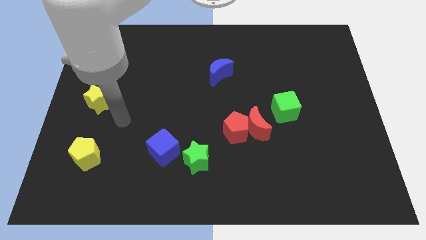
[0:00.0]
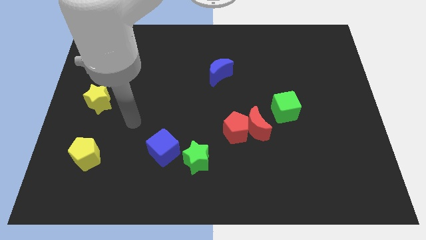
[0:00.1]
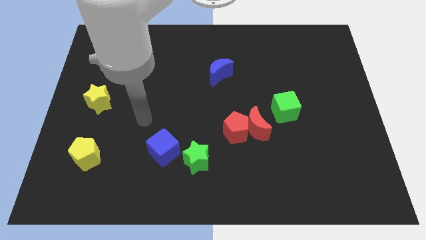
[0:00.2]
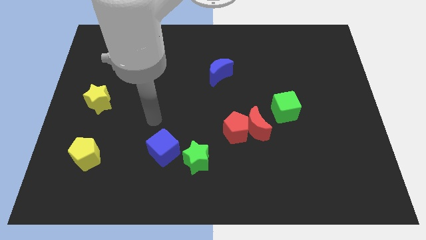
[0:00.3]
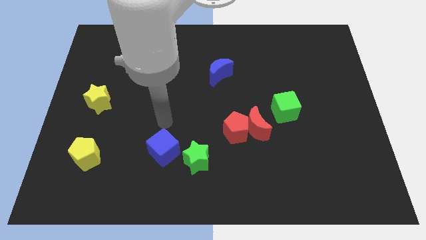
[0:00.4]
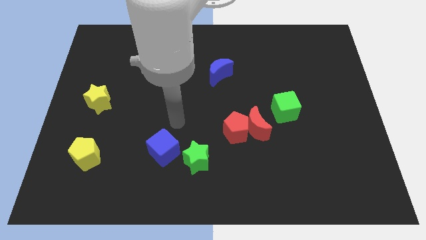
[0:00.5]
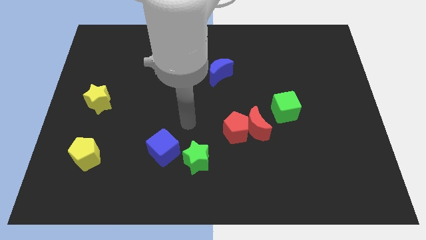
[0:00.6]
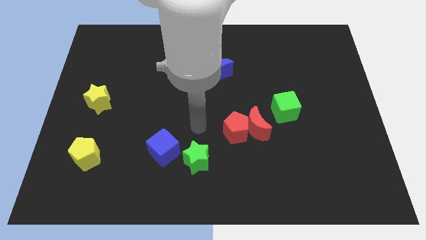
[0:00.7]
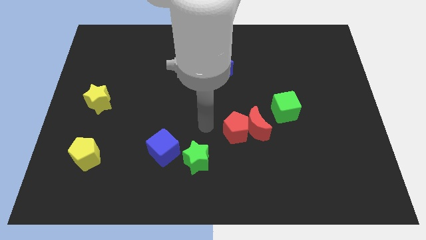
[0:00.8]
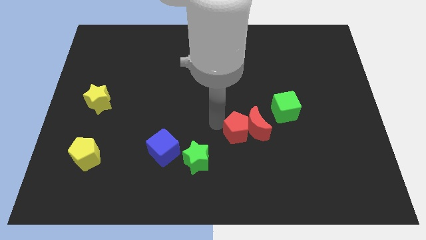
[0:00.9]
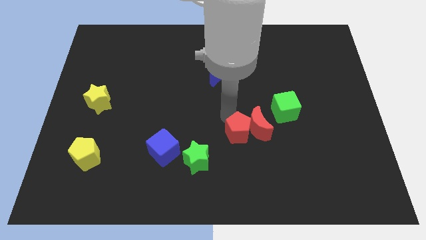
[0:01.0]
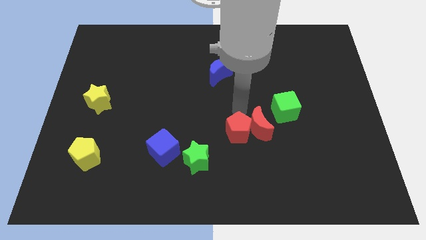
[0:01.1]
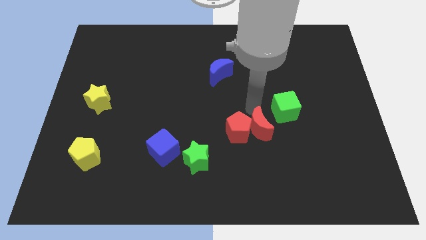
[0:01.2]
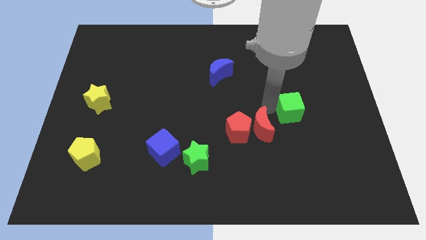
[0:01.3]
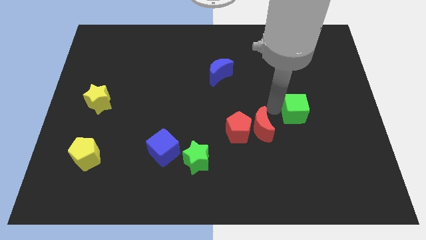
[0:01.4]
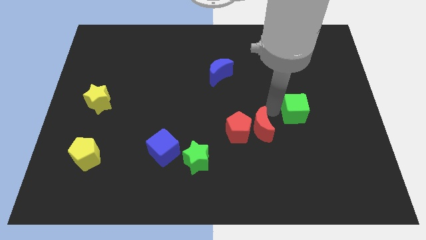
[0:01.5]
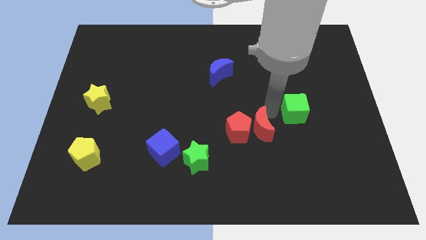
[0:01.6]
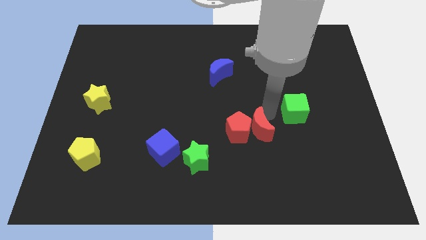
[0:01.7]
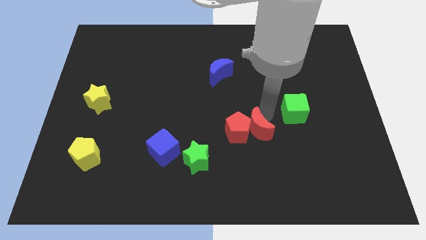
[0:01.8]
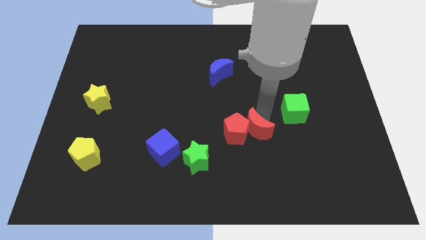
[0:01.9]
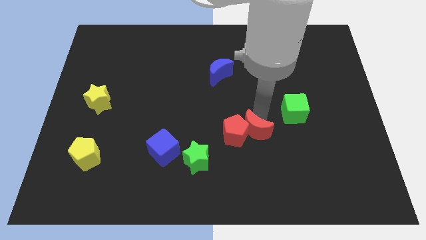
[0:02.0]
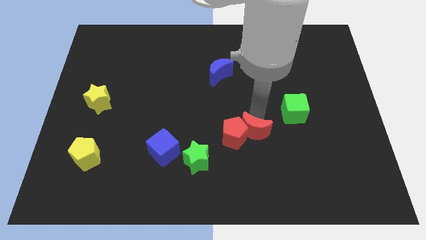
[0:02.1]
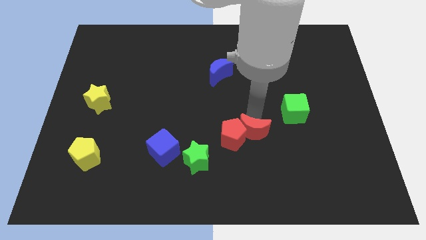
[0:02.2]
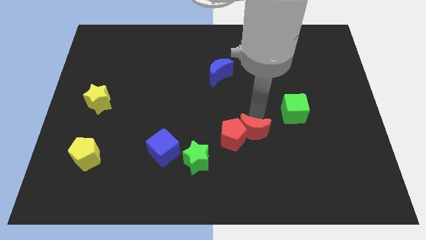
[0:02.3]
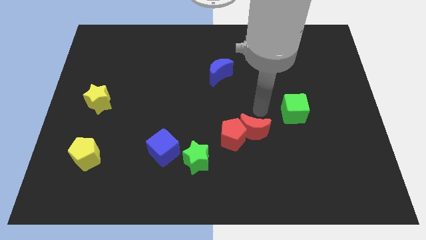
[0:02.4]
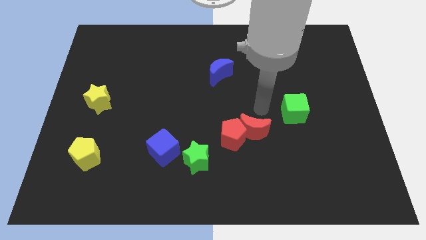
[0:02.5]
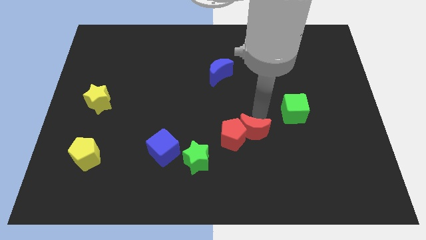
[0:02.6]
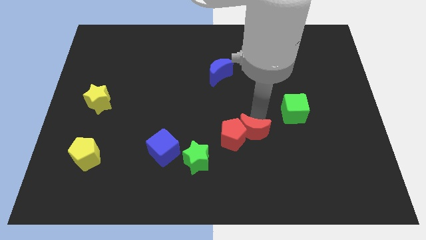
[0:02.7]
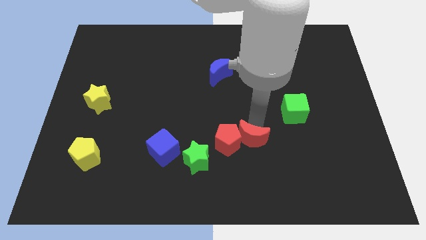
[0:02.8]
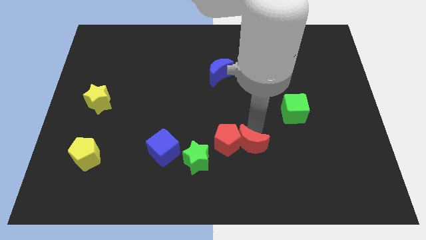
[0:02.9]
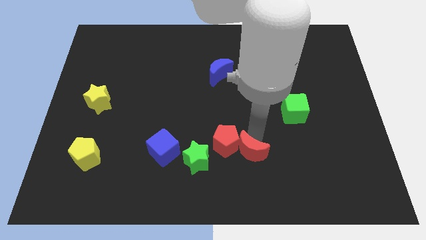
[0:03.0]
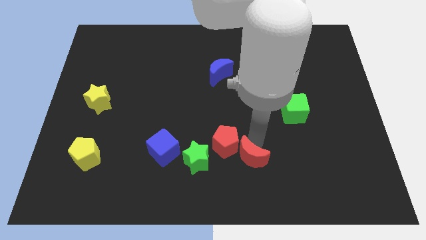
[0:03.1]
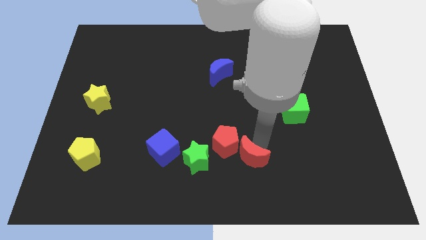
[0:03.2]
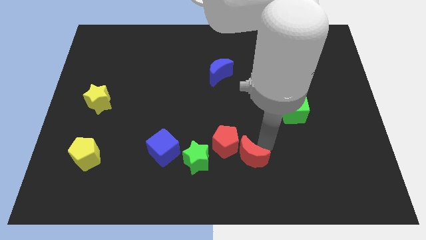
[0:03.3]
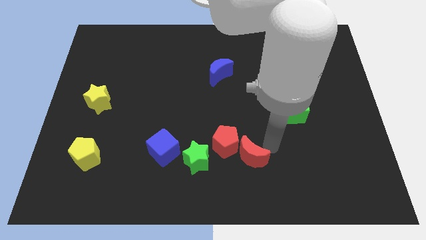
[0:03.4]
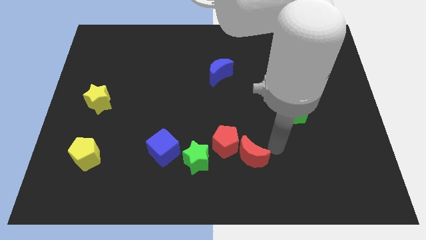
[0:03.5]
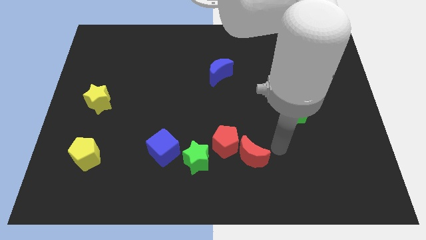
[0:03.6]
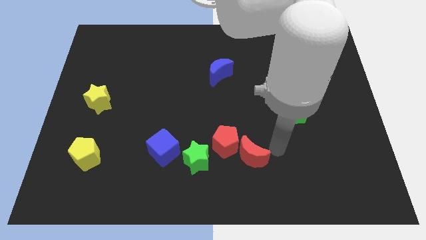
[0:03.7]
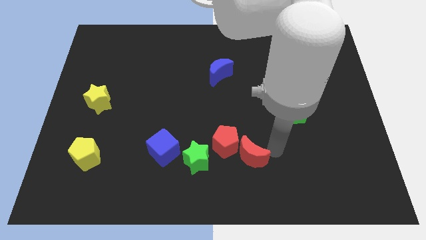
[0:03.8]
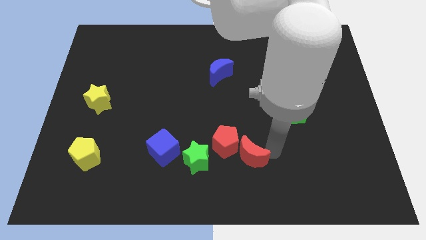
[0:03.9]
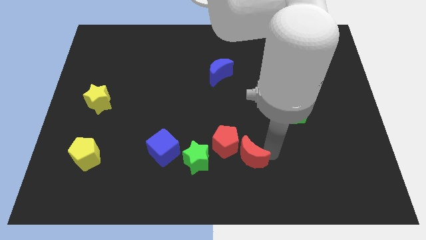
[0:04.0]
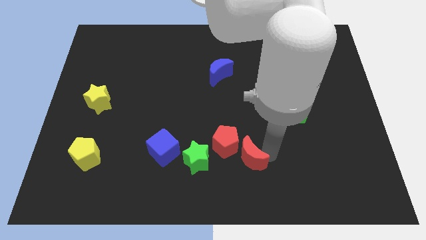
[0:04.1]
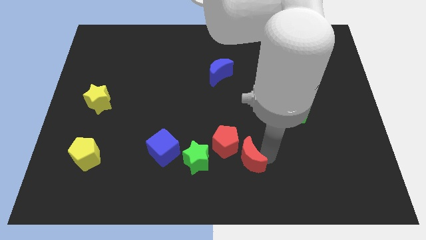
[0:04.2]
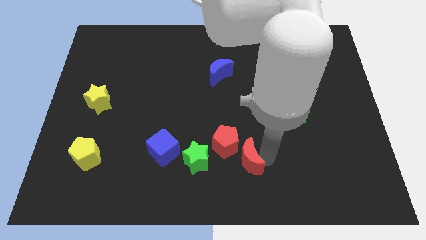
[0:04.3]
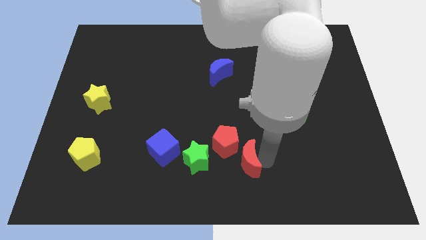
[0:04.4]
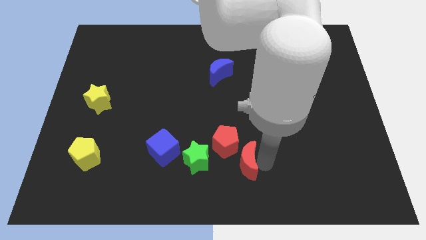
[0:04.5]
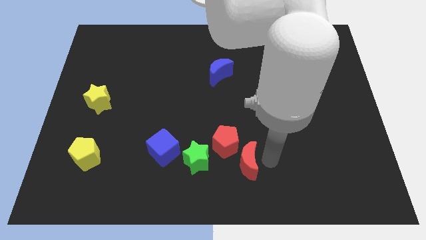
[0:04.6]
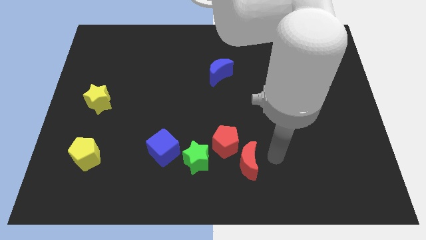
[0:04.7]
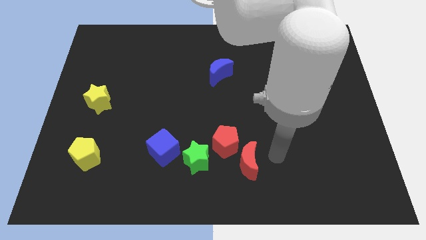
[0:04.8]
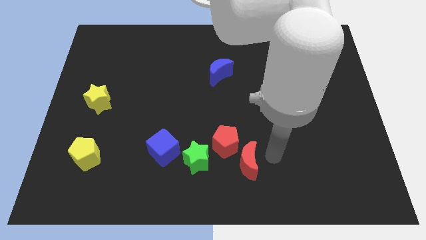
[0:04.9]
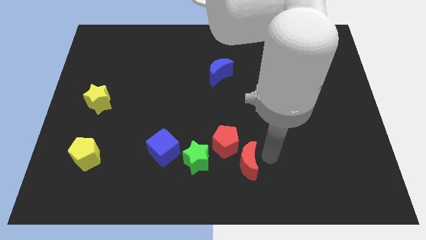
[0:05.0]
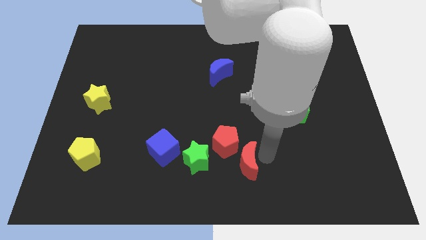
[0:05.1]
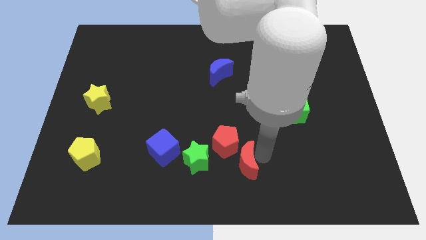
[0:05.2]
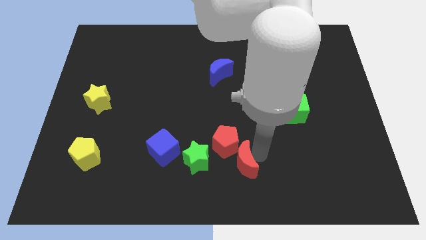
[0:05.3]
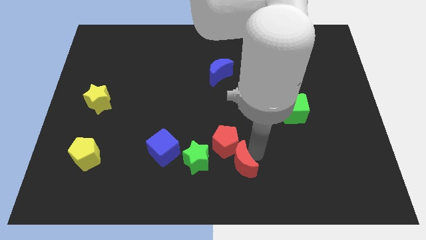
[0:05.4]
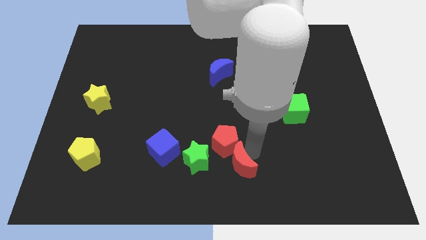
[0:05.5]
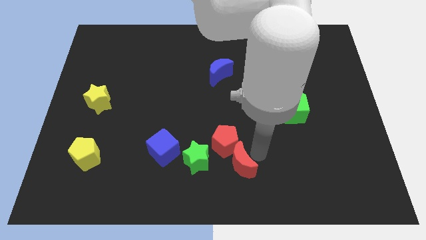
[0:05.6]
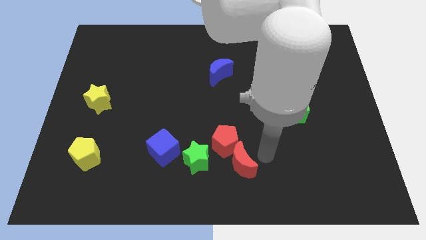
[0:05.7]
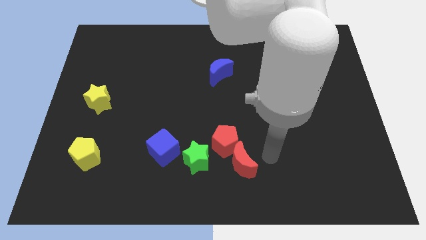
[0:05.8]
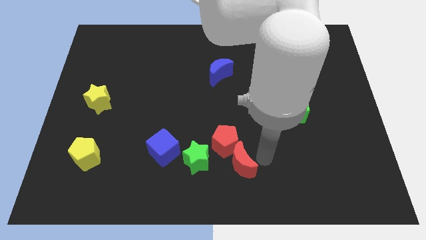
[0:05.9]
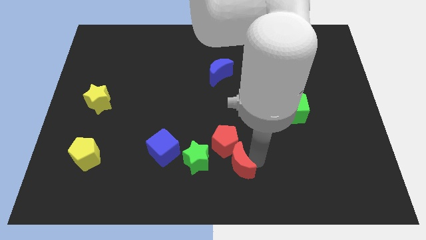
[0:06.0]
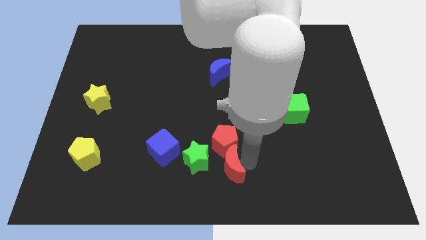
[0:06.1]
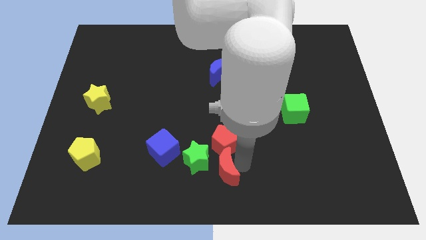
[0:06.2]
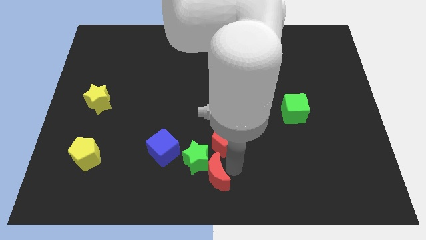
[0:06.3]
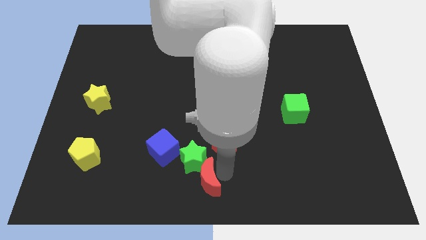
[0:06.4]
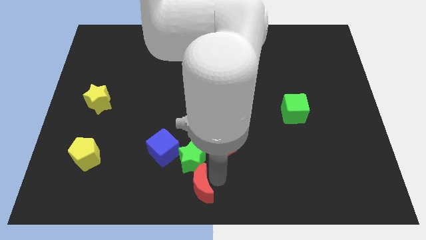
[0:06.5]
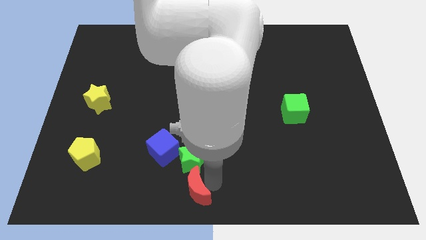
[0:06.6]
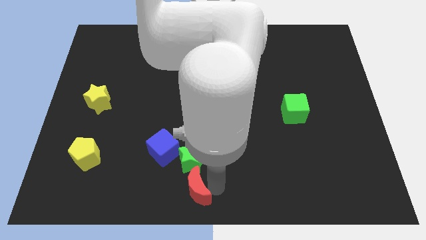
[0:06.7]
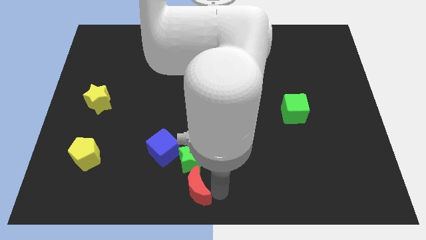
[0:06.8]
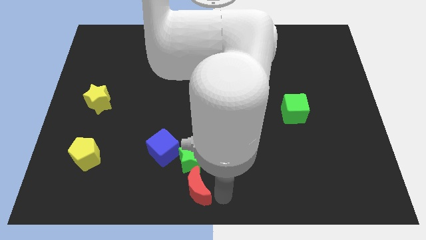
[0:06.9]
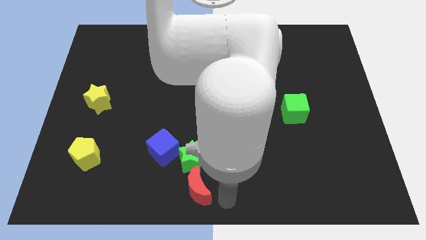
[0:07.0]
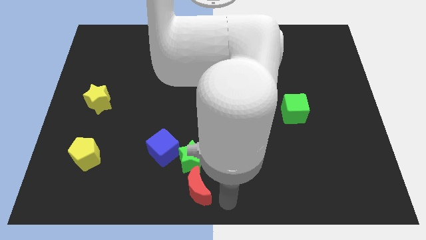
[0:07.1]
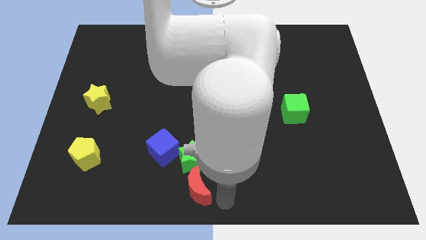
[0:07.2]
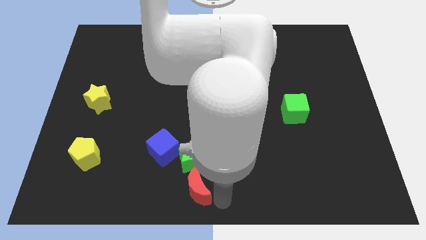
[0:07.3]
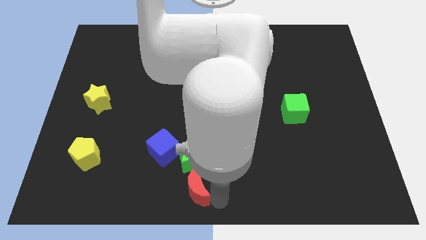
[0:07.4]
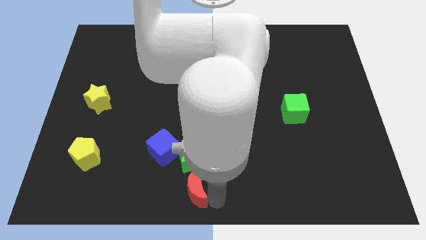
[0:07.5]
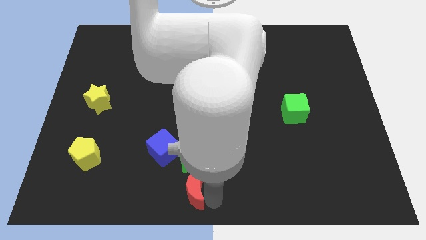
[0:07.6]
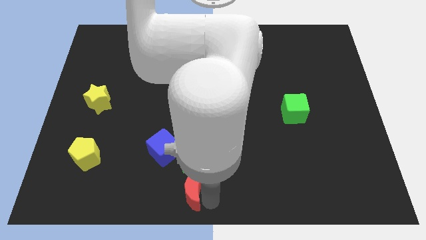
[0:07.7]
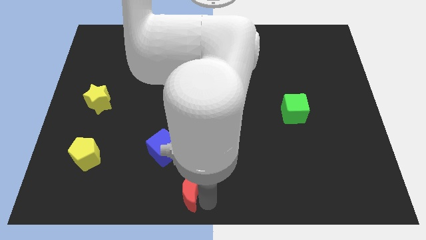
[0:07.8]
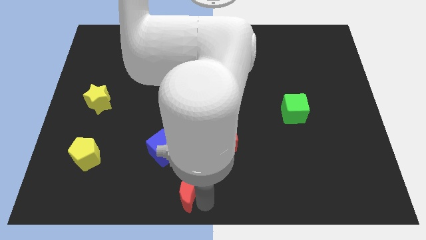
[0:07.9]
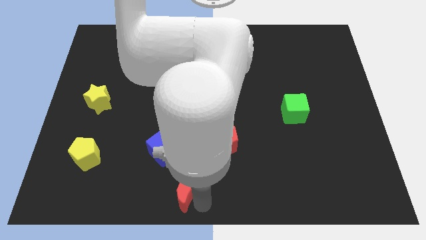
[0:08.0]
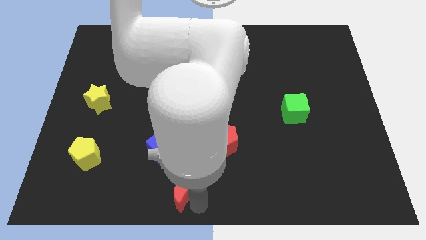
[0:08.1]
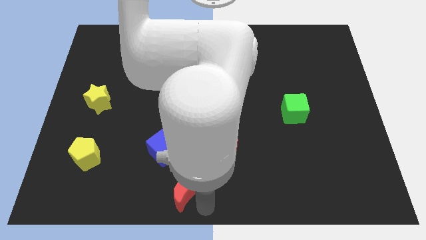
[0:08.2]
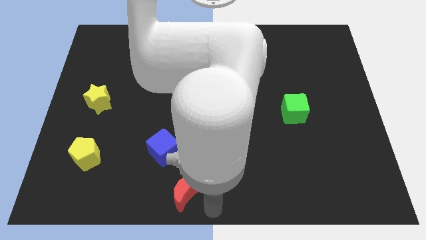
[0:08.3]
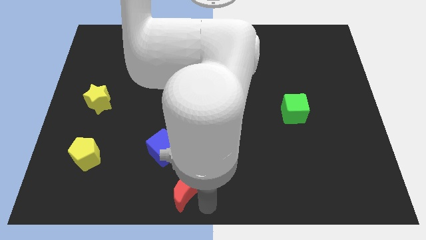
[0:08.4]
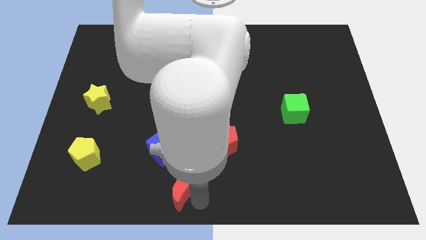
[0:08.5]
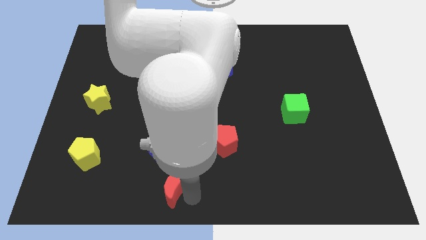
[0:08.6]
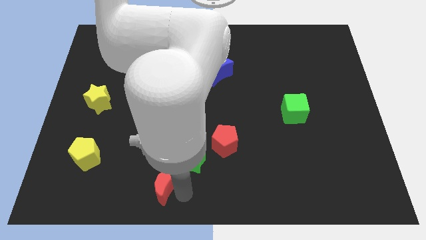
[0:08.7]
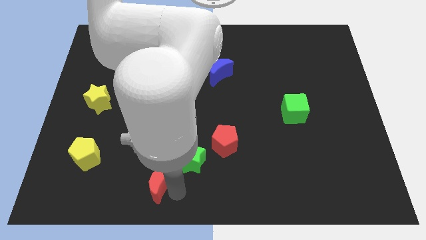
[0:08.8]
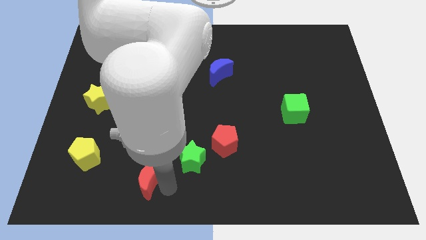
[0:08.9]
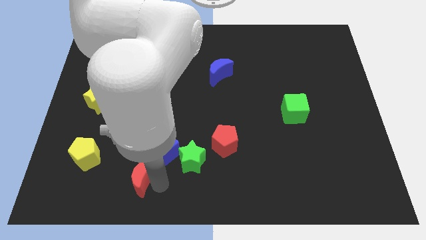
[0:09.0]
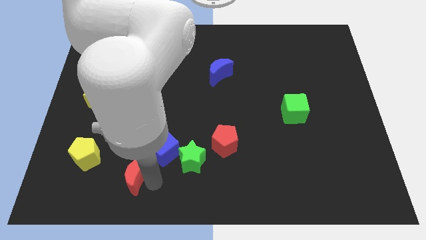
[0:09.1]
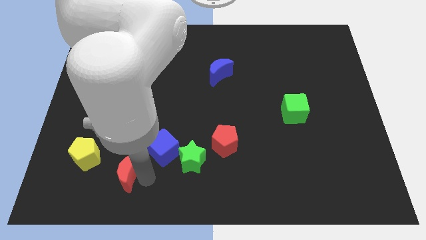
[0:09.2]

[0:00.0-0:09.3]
put the red moon to the bottom right side of the yellow pentagon
